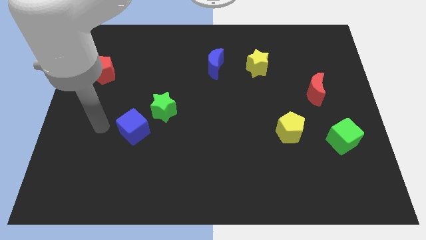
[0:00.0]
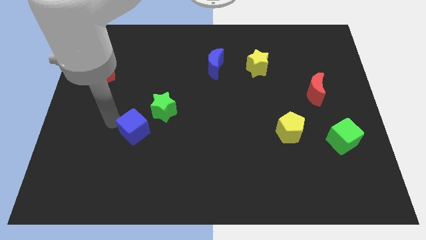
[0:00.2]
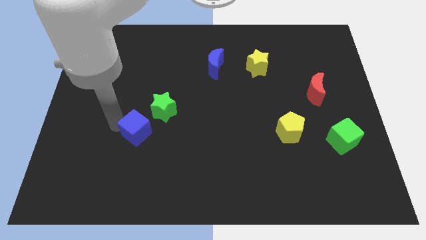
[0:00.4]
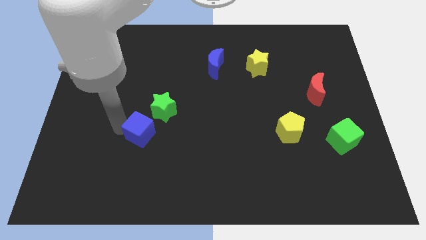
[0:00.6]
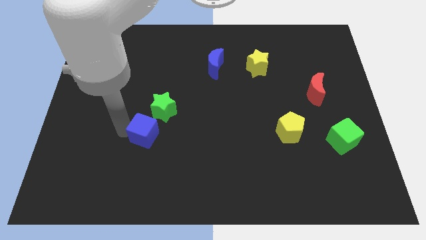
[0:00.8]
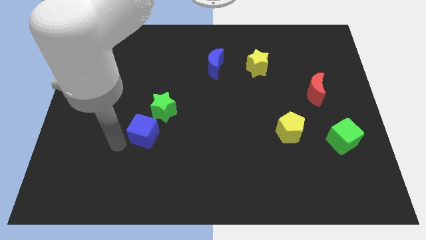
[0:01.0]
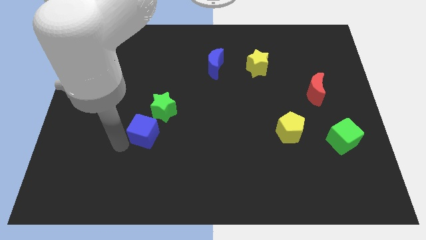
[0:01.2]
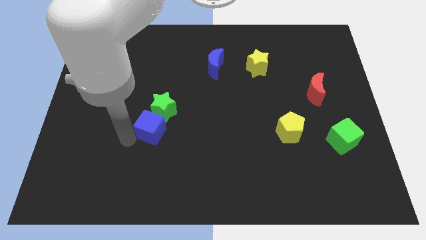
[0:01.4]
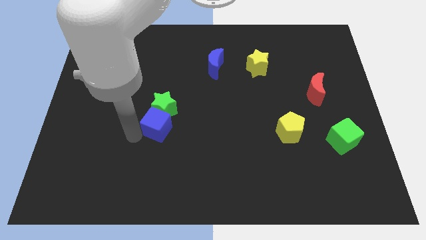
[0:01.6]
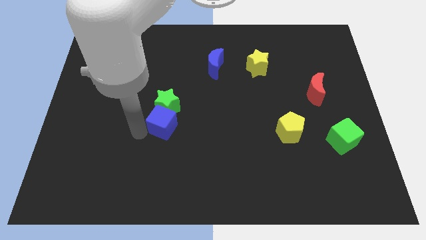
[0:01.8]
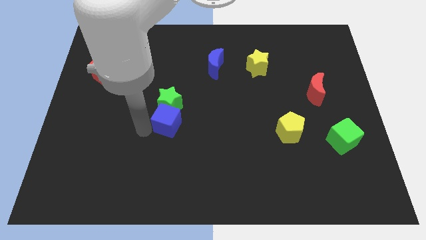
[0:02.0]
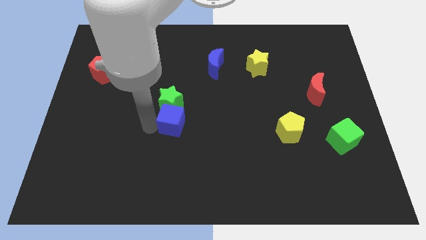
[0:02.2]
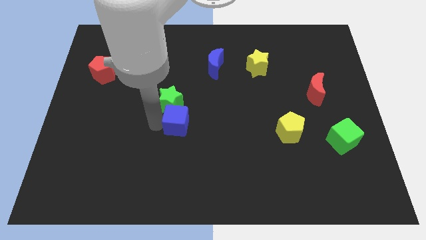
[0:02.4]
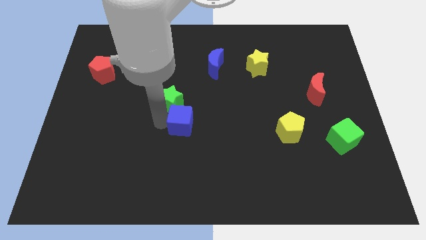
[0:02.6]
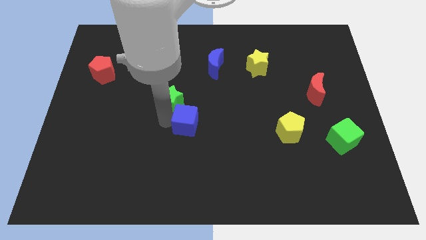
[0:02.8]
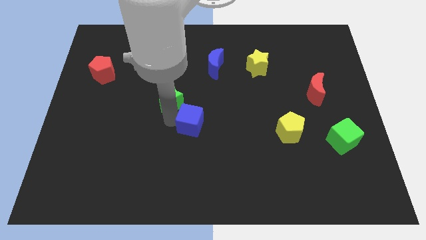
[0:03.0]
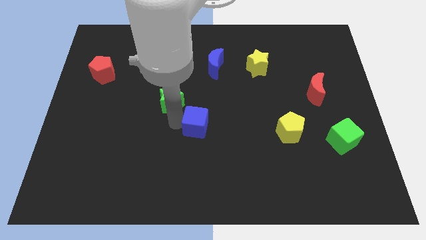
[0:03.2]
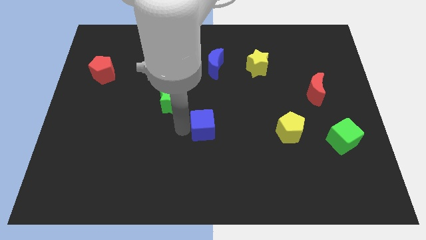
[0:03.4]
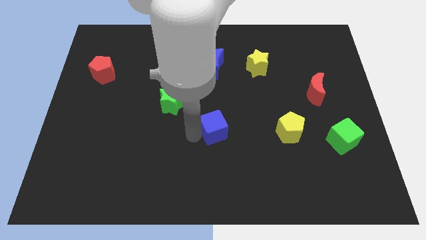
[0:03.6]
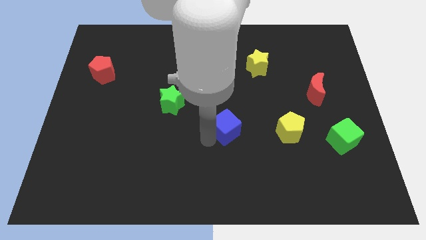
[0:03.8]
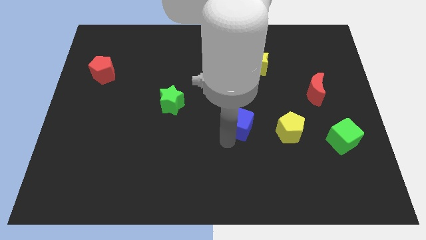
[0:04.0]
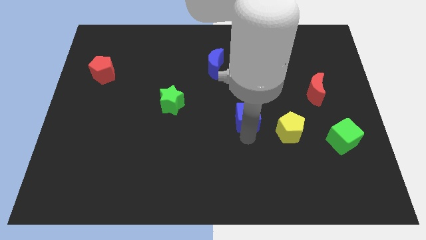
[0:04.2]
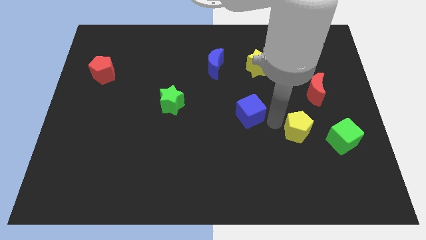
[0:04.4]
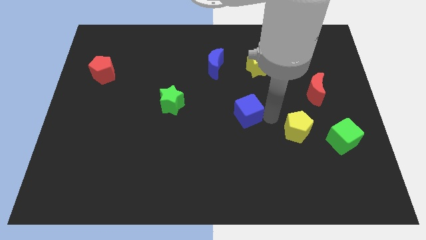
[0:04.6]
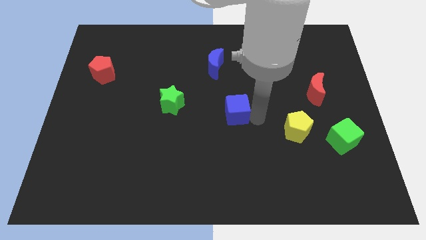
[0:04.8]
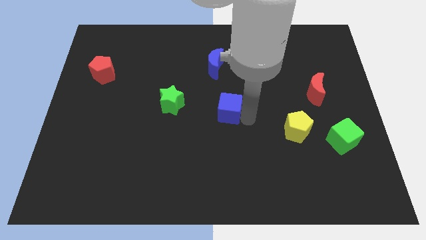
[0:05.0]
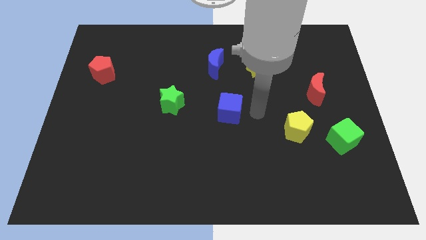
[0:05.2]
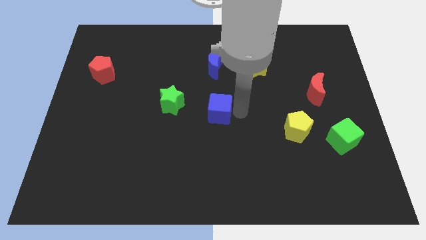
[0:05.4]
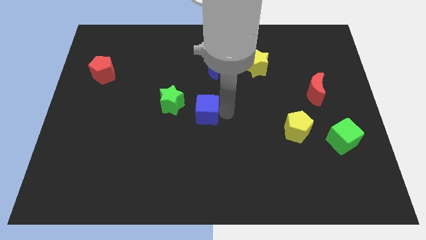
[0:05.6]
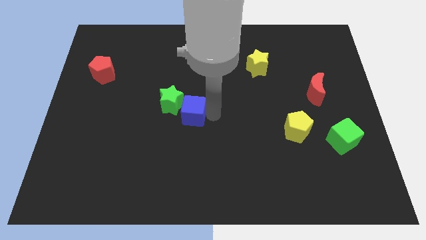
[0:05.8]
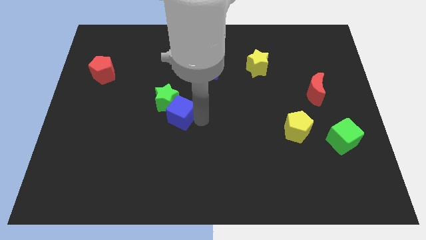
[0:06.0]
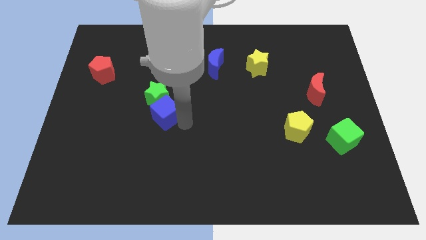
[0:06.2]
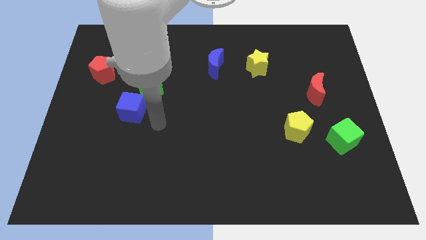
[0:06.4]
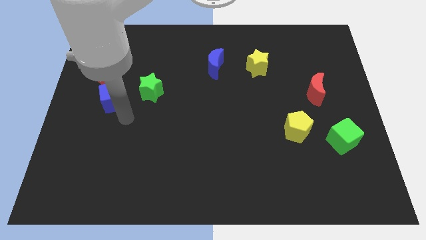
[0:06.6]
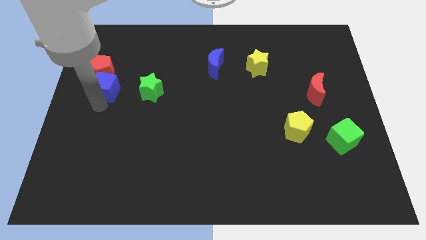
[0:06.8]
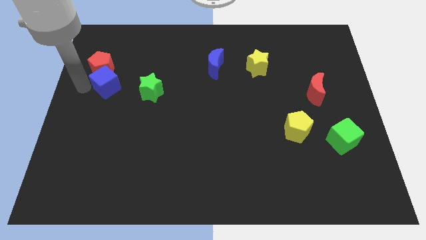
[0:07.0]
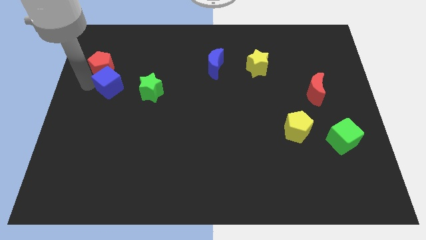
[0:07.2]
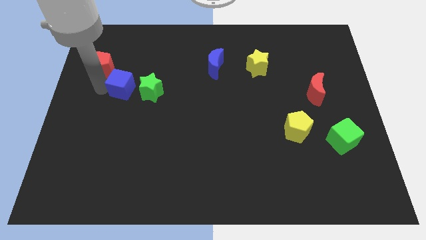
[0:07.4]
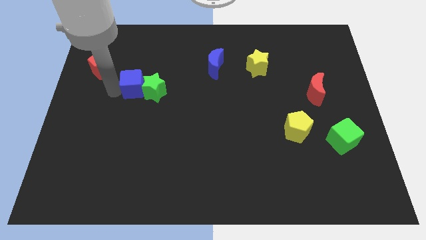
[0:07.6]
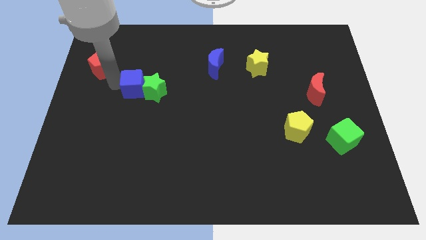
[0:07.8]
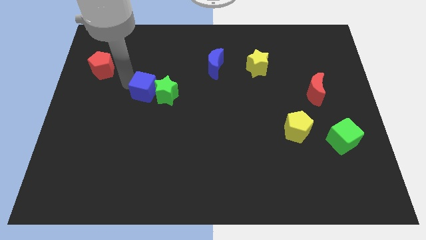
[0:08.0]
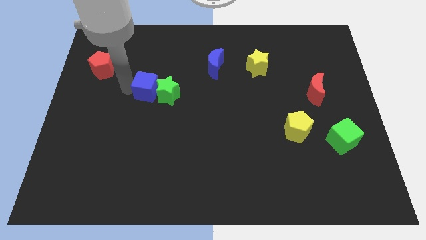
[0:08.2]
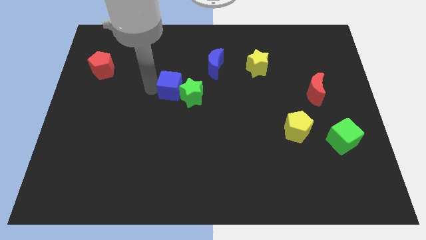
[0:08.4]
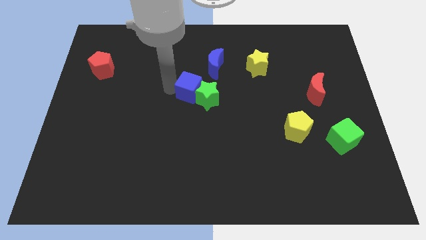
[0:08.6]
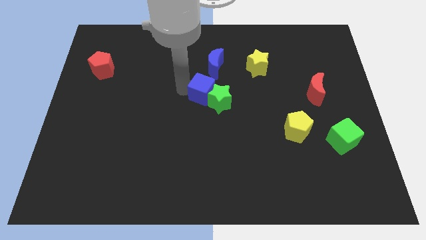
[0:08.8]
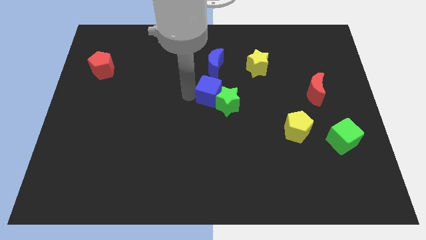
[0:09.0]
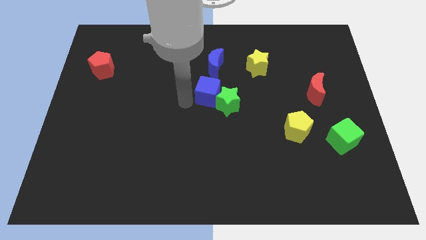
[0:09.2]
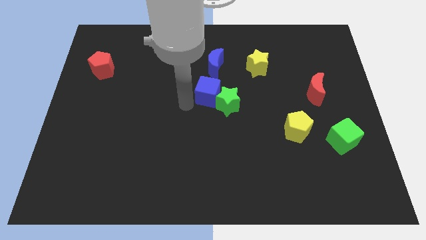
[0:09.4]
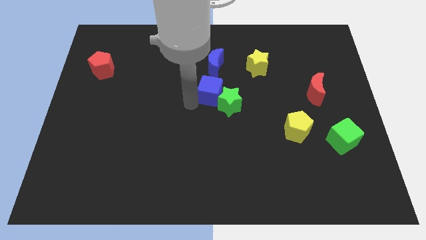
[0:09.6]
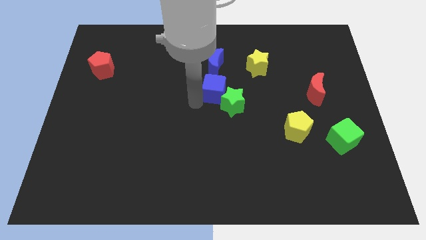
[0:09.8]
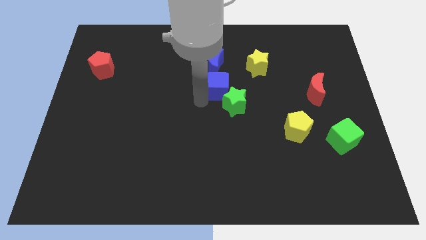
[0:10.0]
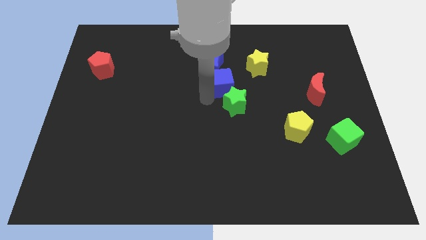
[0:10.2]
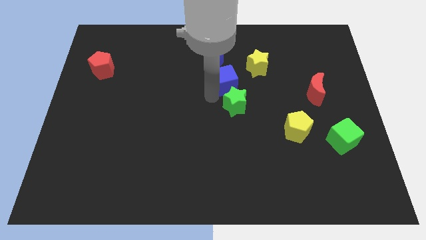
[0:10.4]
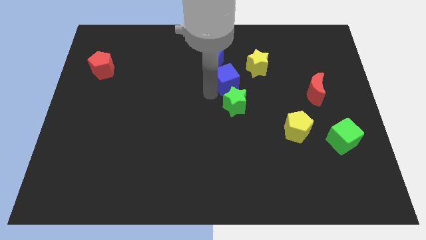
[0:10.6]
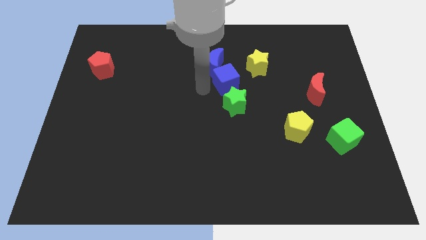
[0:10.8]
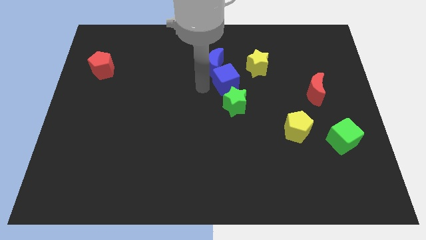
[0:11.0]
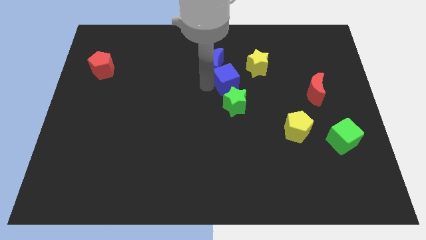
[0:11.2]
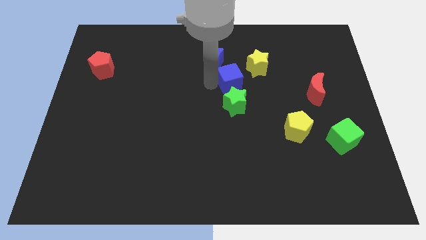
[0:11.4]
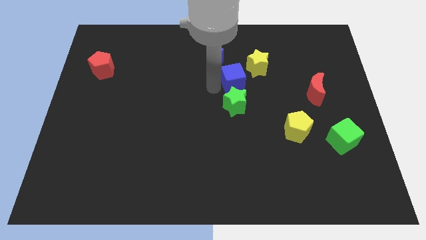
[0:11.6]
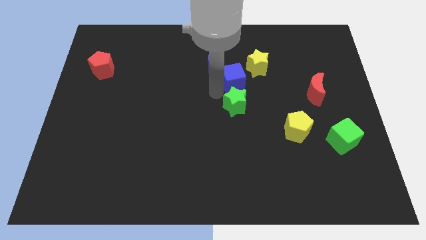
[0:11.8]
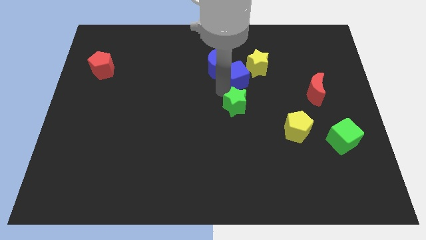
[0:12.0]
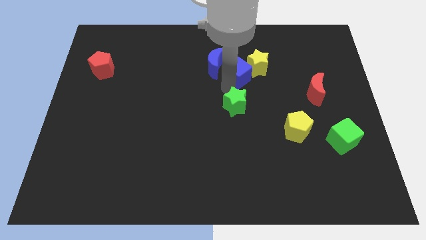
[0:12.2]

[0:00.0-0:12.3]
put the blue cube towards the yellow star

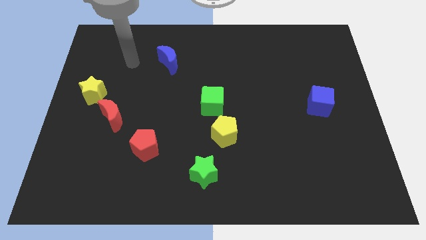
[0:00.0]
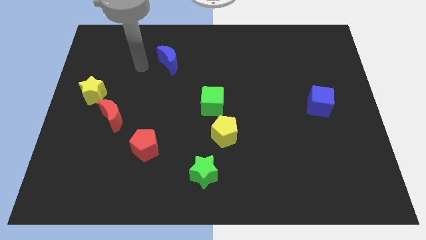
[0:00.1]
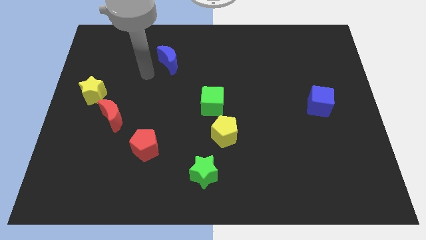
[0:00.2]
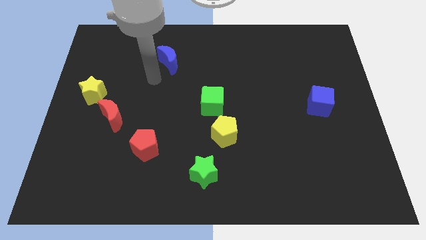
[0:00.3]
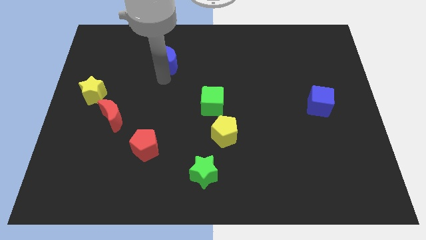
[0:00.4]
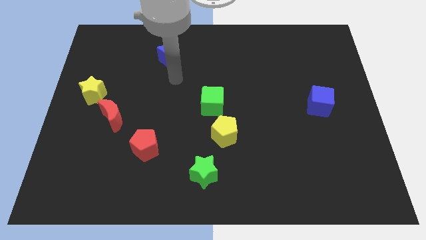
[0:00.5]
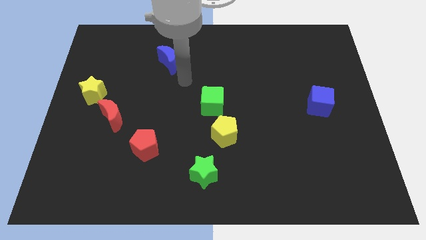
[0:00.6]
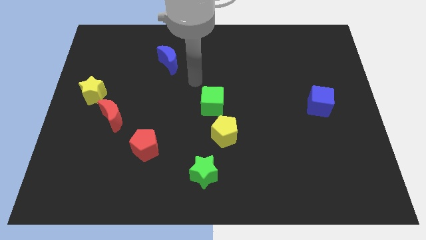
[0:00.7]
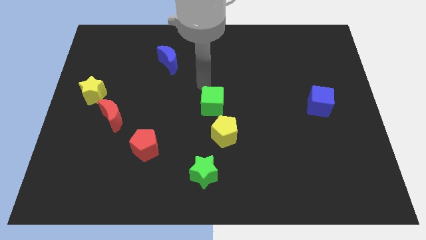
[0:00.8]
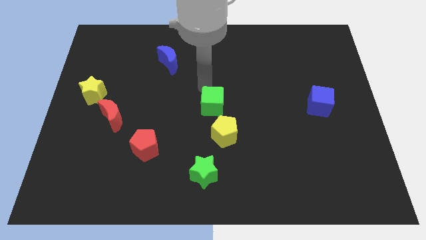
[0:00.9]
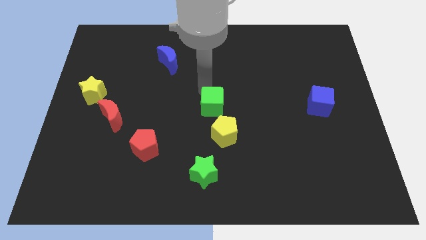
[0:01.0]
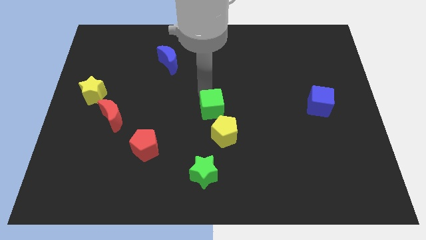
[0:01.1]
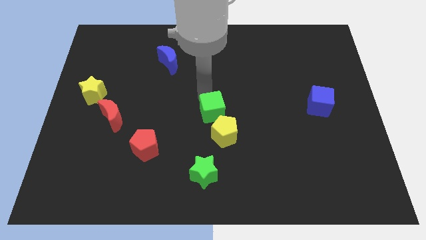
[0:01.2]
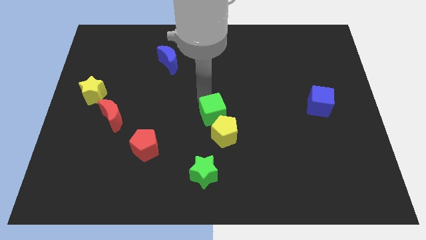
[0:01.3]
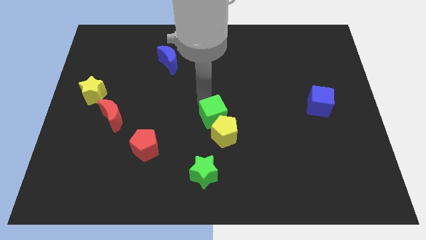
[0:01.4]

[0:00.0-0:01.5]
slide the green cube next to the yellow pentagon

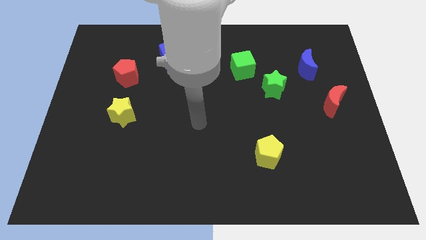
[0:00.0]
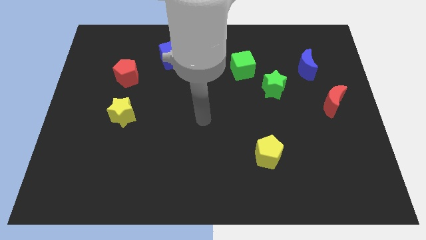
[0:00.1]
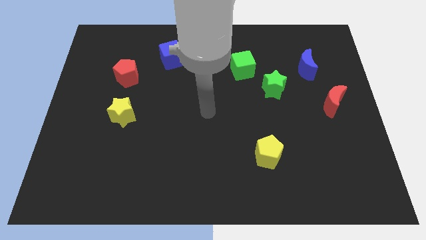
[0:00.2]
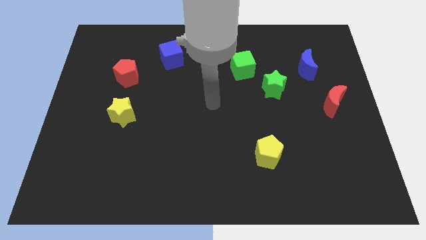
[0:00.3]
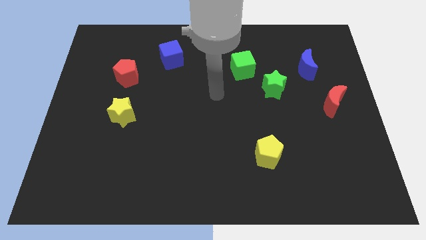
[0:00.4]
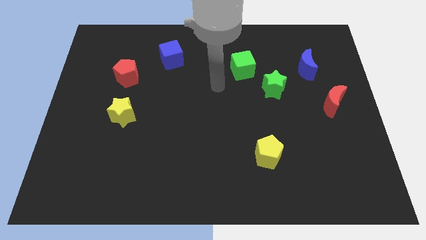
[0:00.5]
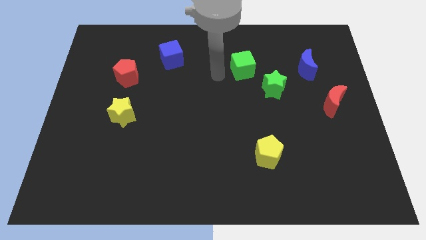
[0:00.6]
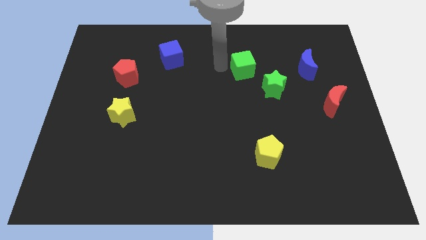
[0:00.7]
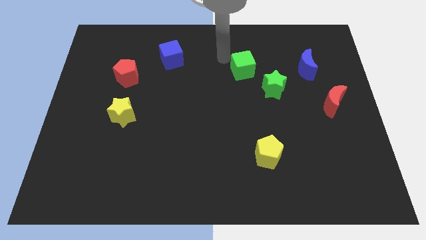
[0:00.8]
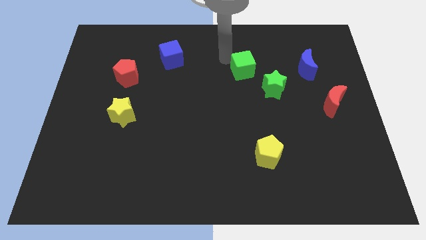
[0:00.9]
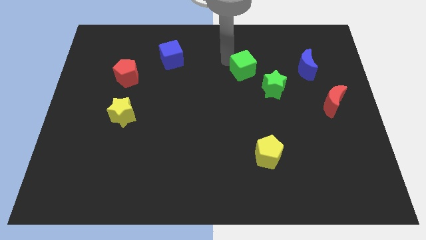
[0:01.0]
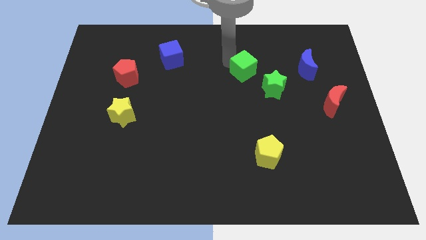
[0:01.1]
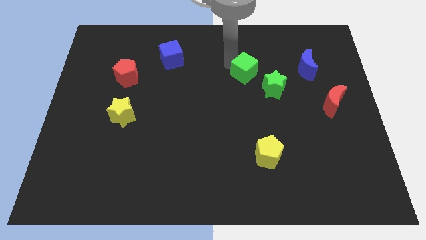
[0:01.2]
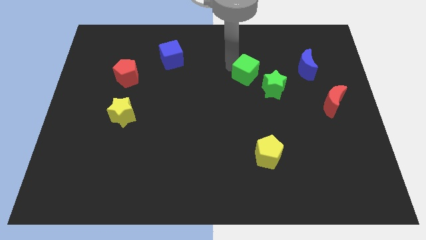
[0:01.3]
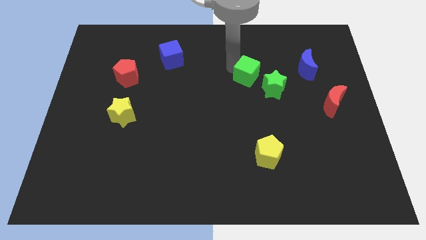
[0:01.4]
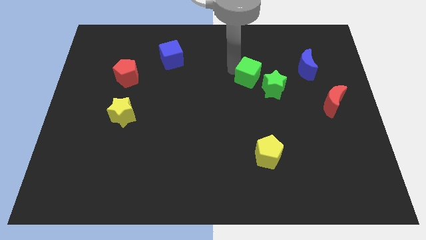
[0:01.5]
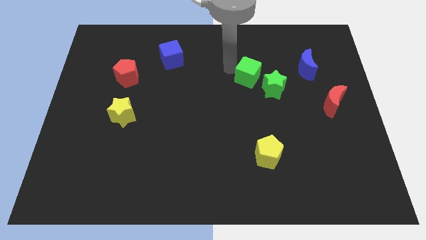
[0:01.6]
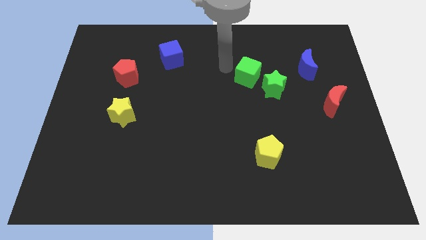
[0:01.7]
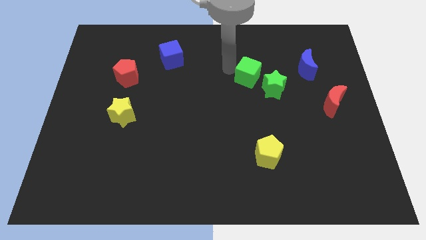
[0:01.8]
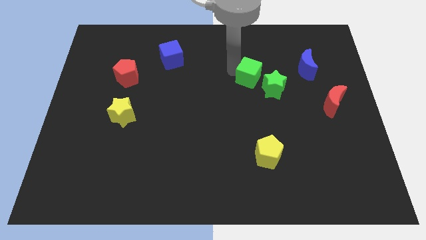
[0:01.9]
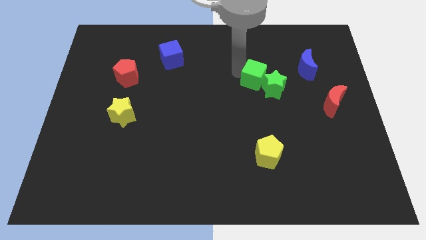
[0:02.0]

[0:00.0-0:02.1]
move the green cube to the green star
